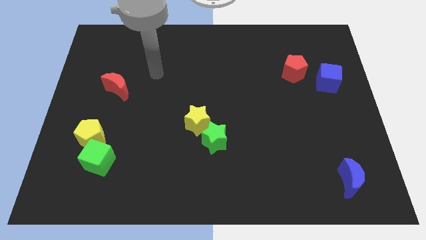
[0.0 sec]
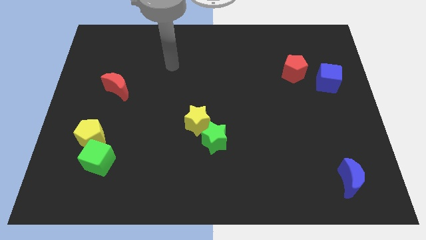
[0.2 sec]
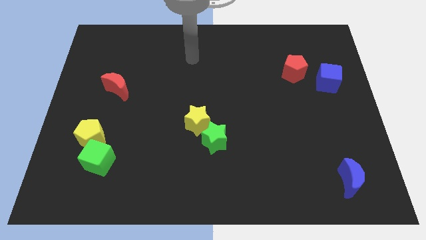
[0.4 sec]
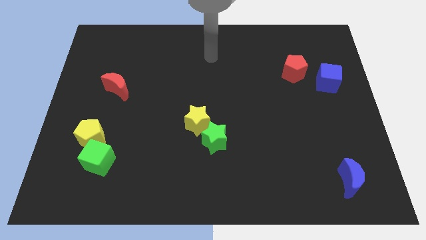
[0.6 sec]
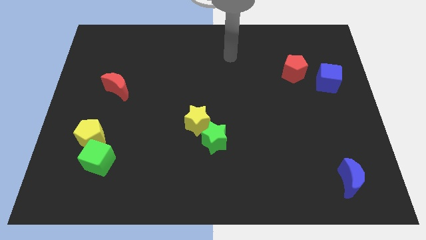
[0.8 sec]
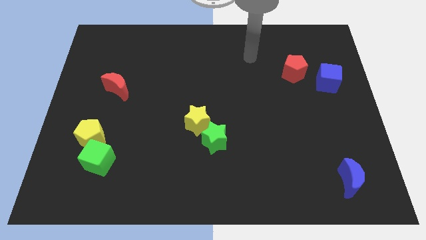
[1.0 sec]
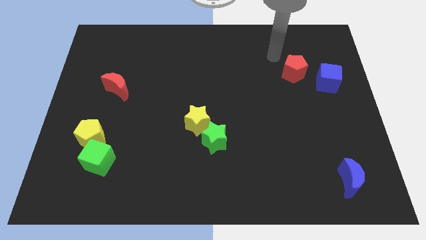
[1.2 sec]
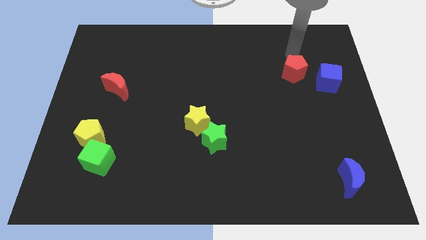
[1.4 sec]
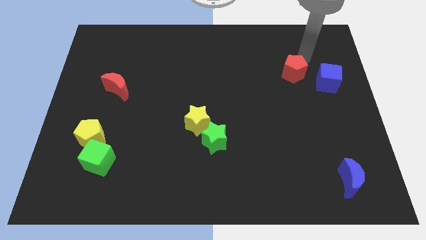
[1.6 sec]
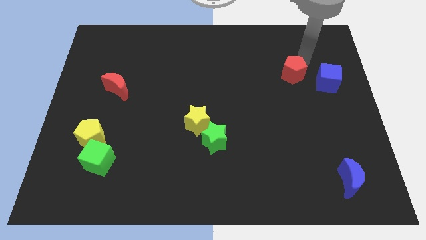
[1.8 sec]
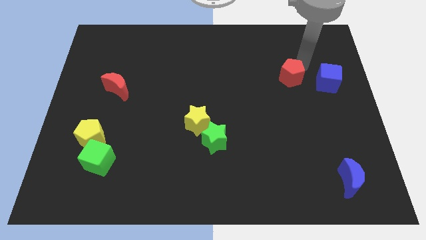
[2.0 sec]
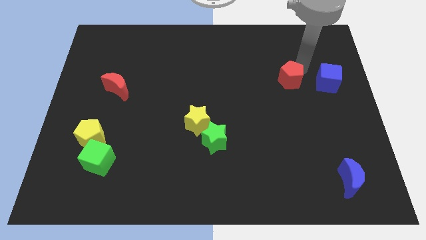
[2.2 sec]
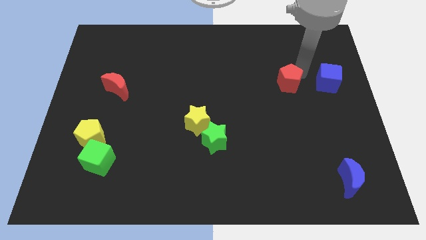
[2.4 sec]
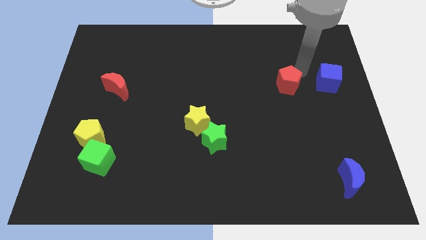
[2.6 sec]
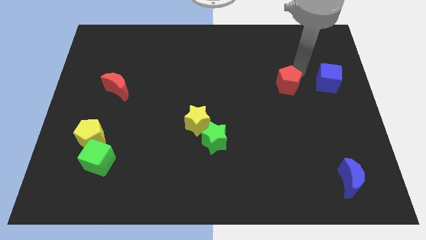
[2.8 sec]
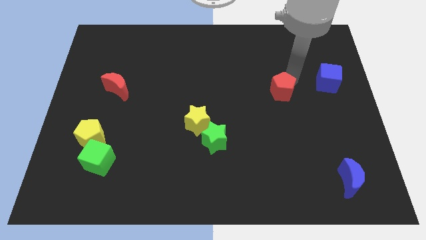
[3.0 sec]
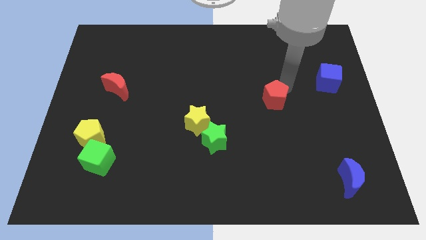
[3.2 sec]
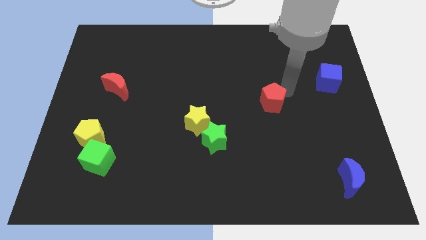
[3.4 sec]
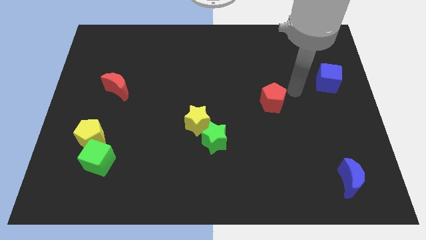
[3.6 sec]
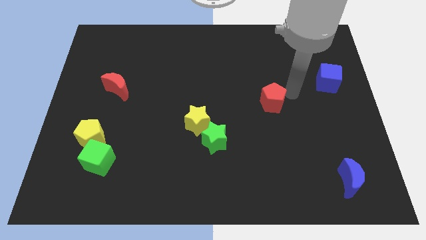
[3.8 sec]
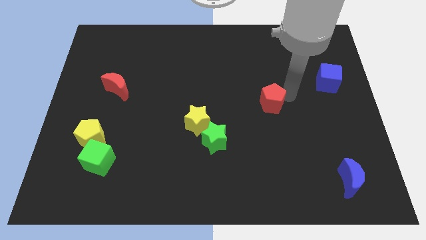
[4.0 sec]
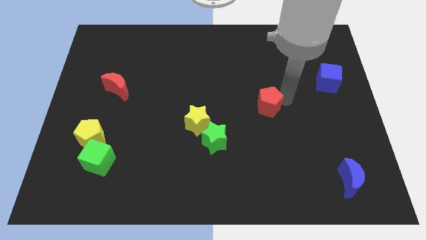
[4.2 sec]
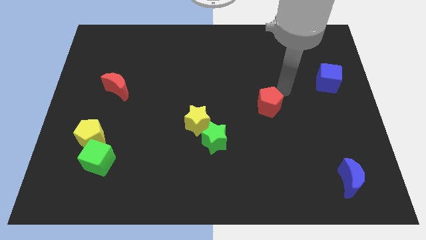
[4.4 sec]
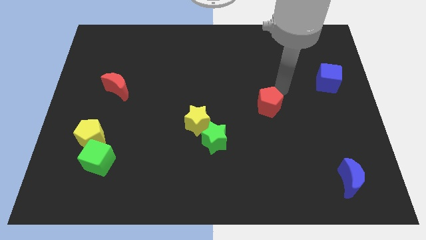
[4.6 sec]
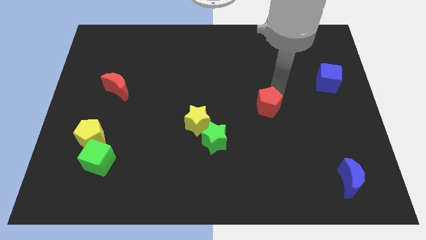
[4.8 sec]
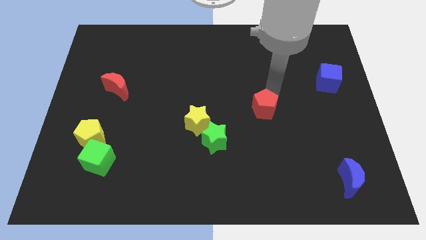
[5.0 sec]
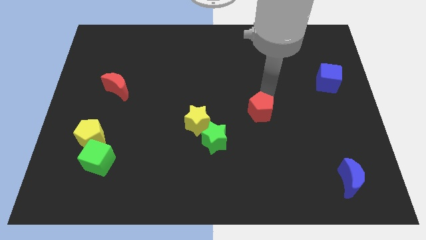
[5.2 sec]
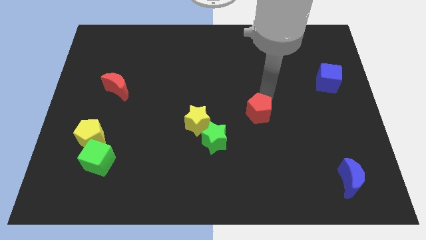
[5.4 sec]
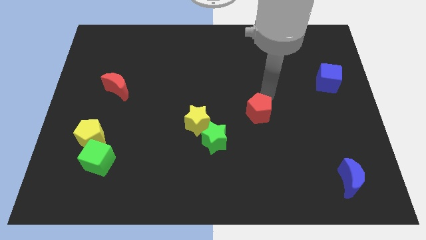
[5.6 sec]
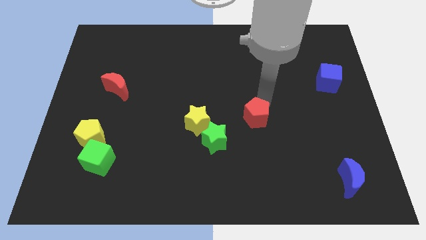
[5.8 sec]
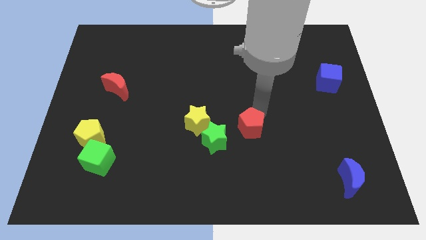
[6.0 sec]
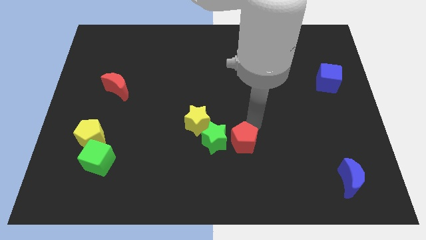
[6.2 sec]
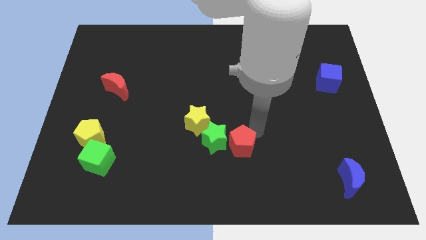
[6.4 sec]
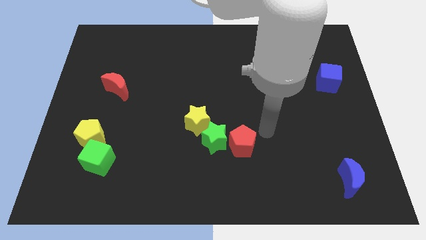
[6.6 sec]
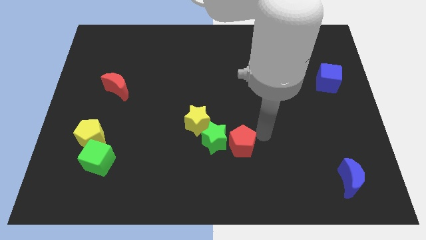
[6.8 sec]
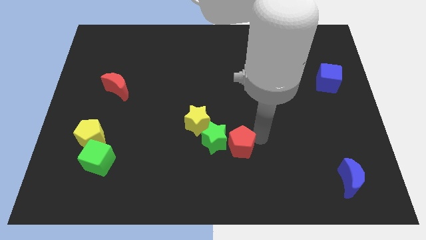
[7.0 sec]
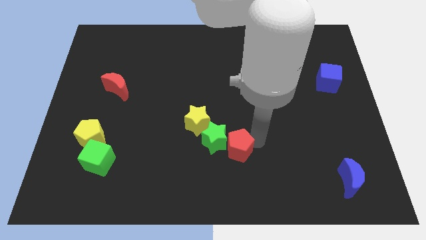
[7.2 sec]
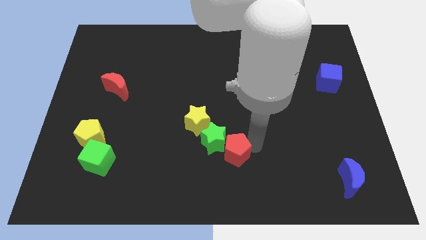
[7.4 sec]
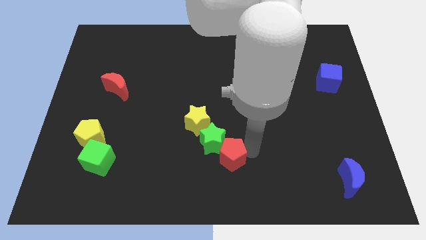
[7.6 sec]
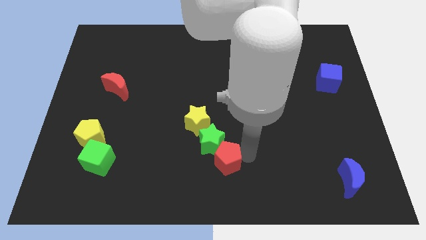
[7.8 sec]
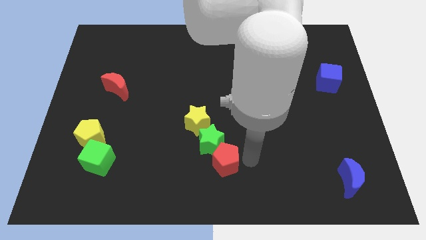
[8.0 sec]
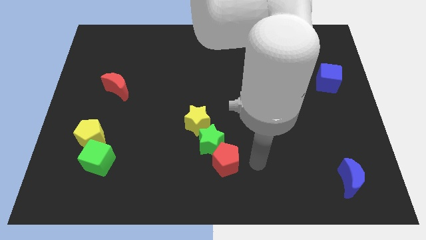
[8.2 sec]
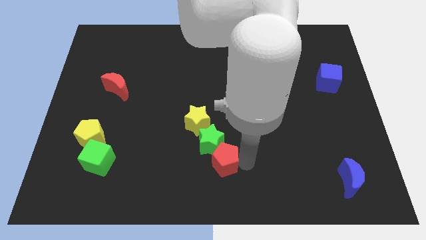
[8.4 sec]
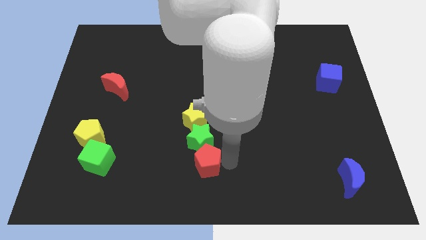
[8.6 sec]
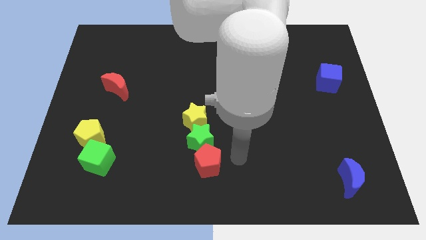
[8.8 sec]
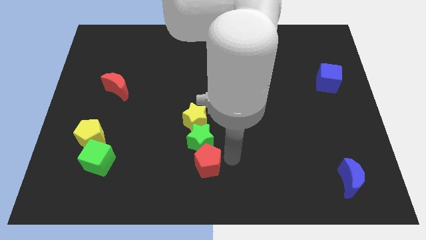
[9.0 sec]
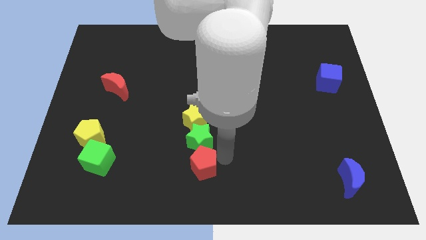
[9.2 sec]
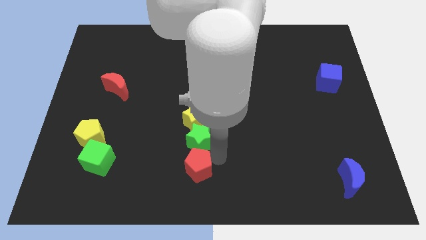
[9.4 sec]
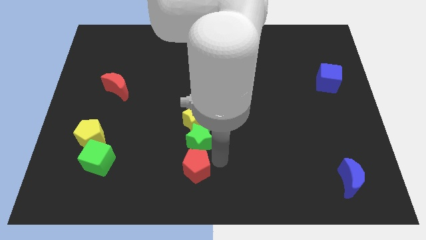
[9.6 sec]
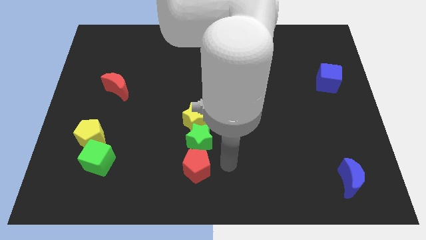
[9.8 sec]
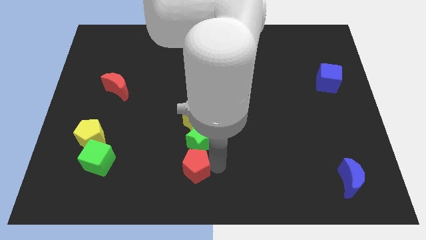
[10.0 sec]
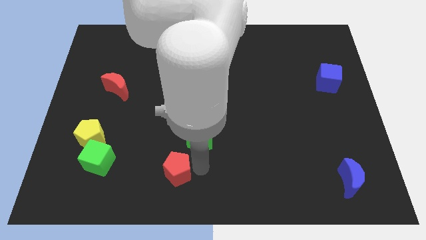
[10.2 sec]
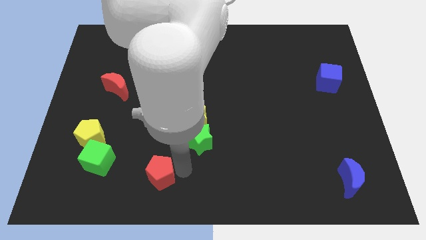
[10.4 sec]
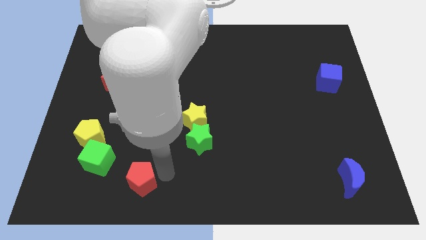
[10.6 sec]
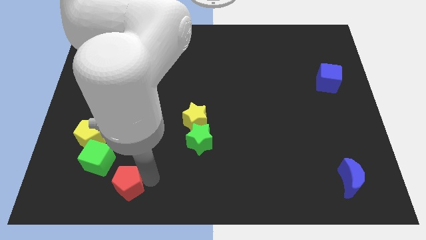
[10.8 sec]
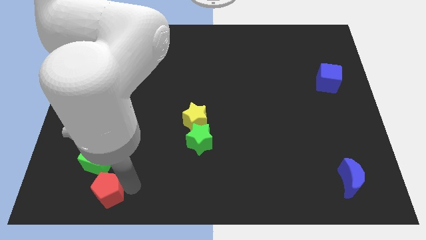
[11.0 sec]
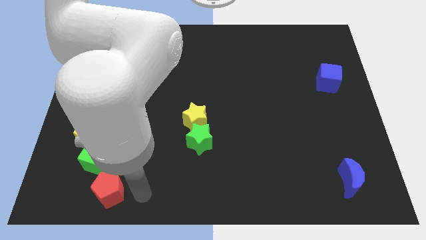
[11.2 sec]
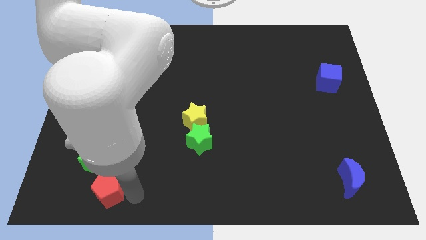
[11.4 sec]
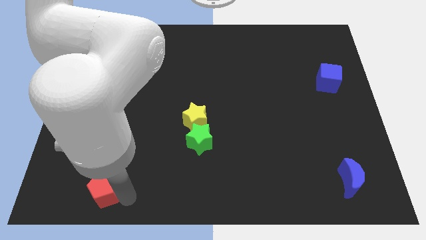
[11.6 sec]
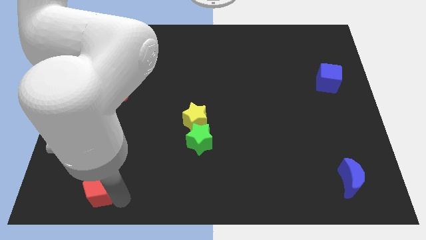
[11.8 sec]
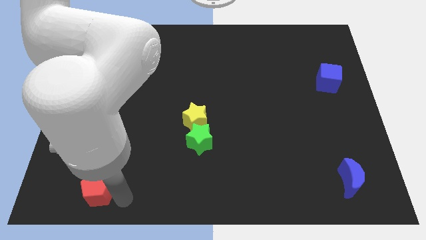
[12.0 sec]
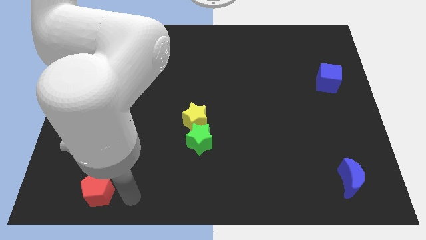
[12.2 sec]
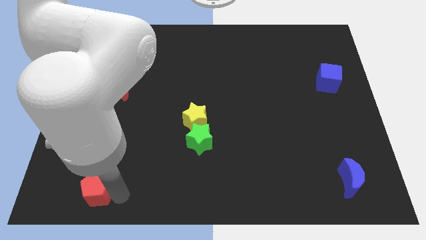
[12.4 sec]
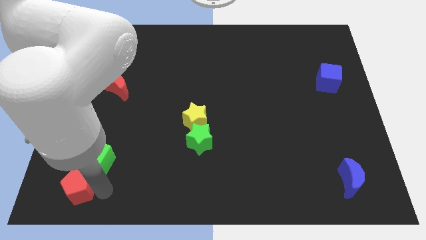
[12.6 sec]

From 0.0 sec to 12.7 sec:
move the red pentagon to the bottom left
